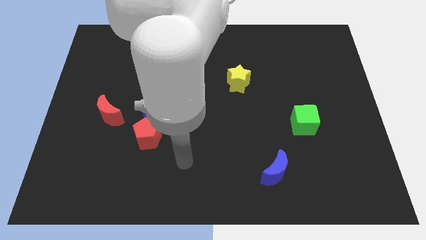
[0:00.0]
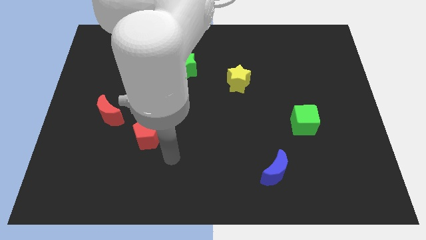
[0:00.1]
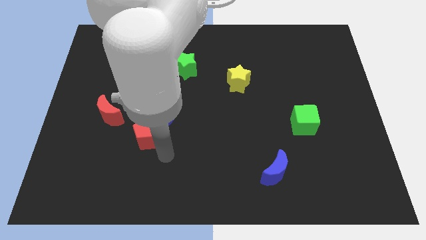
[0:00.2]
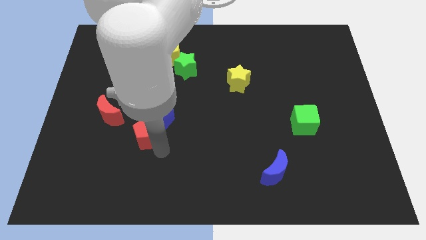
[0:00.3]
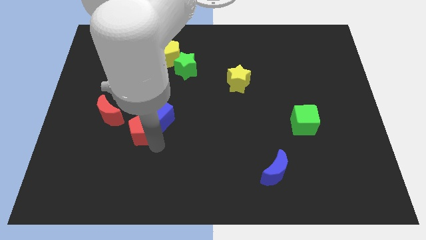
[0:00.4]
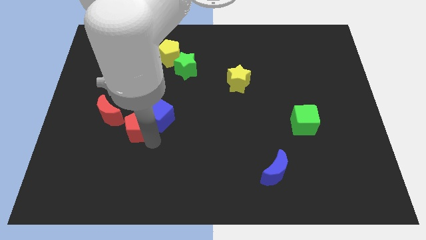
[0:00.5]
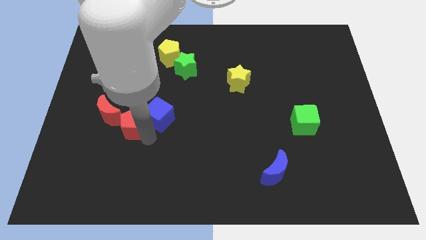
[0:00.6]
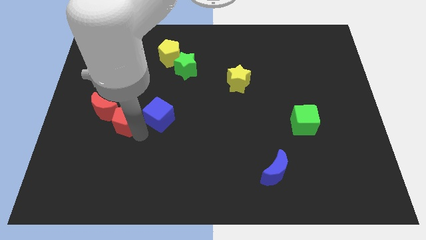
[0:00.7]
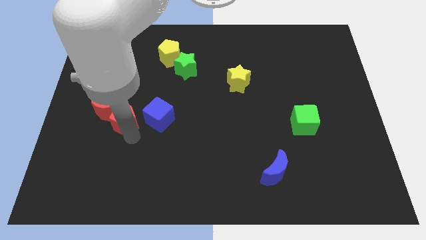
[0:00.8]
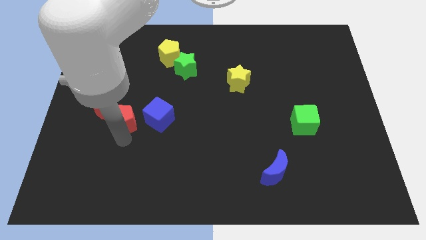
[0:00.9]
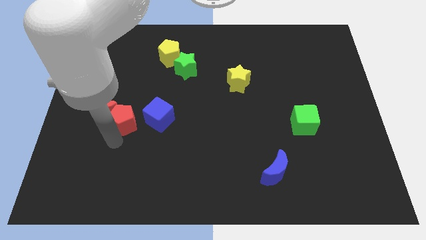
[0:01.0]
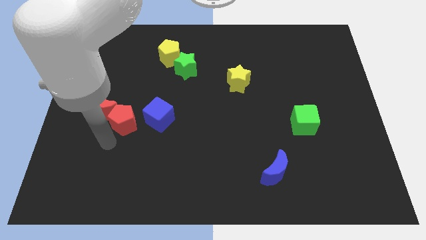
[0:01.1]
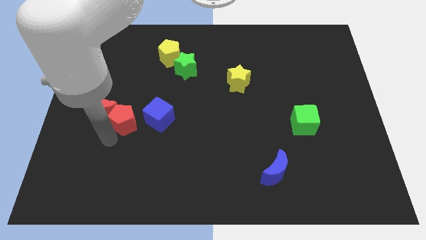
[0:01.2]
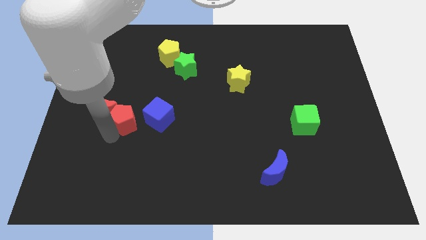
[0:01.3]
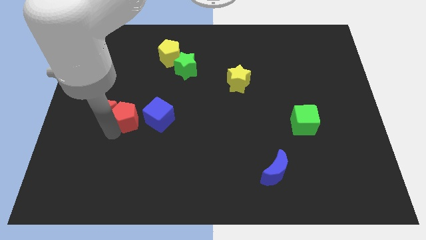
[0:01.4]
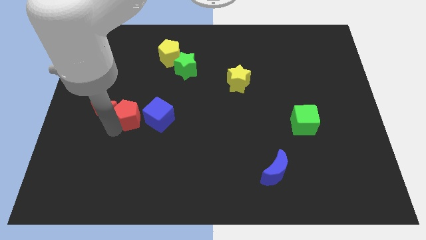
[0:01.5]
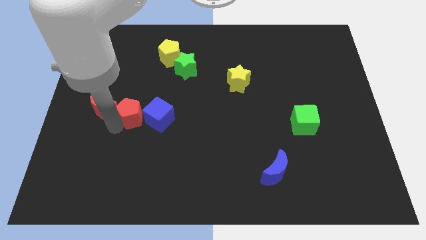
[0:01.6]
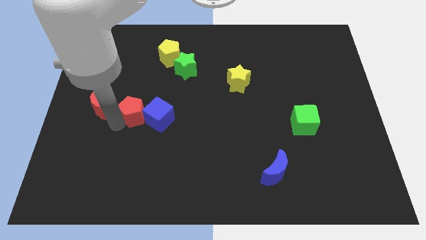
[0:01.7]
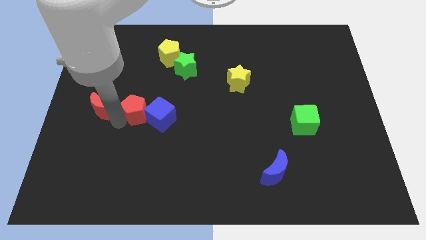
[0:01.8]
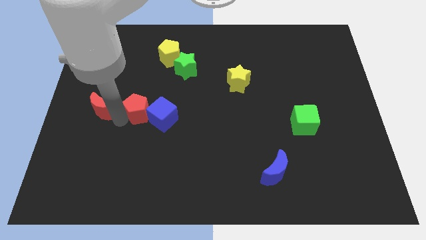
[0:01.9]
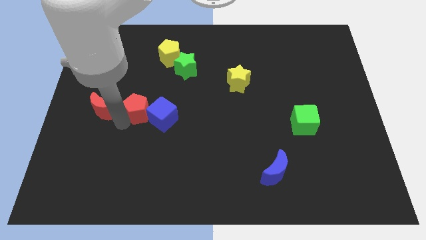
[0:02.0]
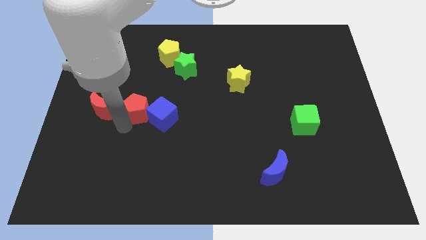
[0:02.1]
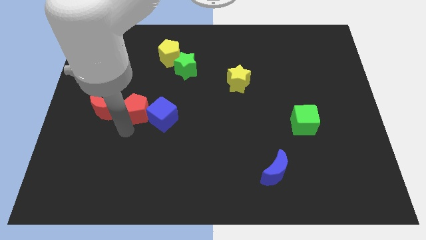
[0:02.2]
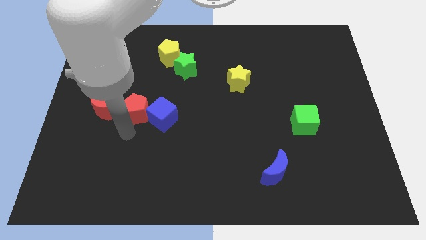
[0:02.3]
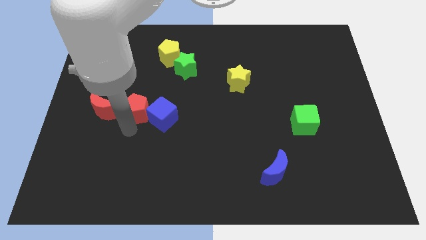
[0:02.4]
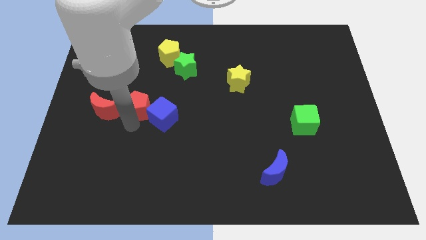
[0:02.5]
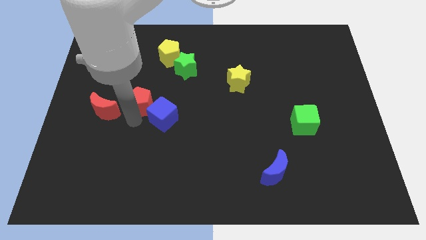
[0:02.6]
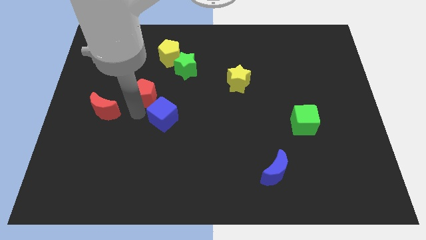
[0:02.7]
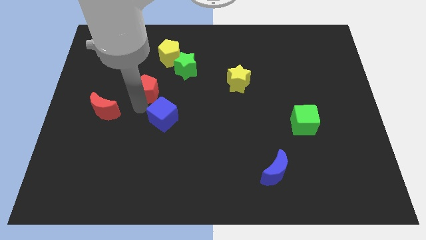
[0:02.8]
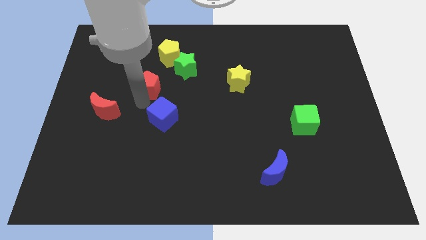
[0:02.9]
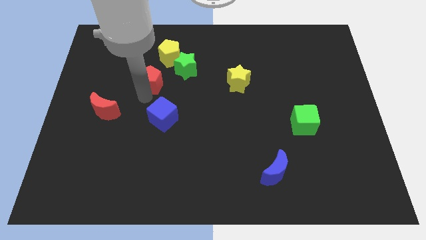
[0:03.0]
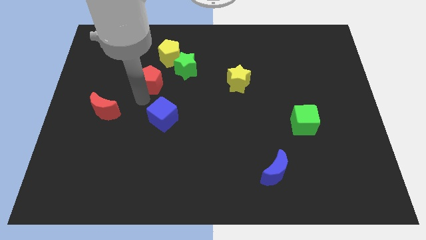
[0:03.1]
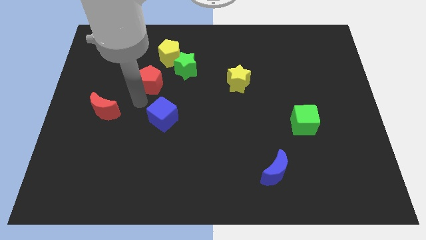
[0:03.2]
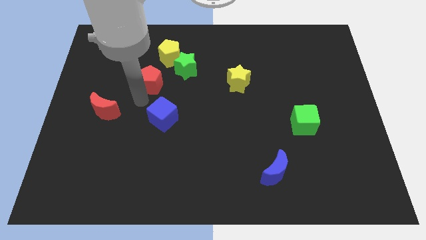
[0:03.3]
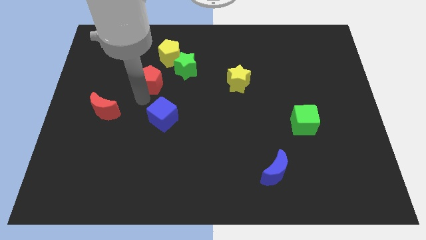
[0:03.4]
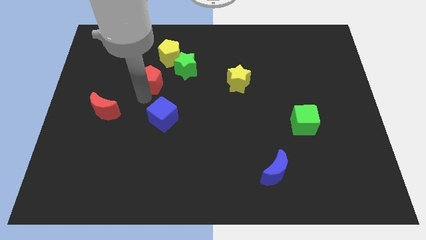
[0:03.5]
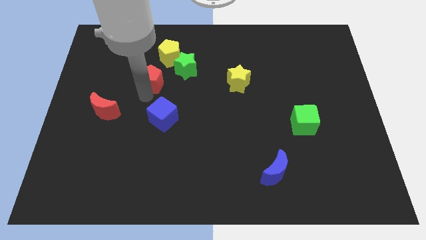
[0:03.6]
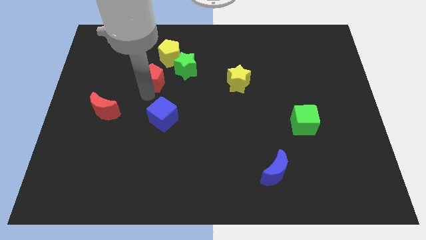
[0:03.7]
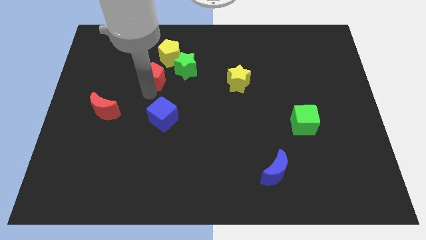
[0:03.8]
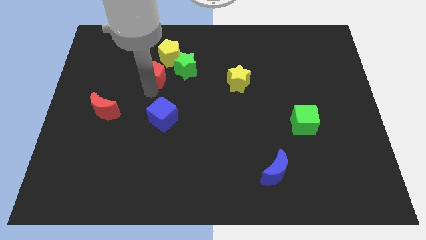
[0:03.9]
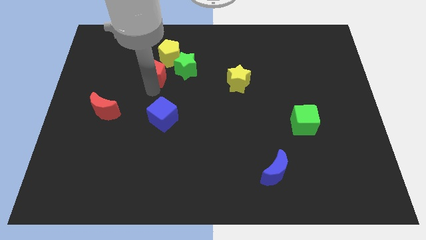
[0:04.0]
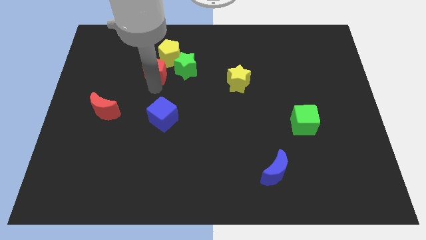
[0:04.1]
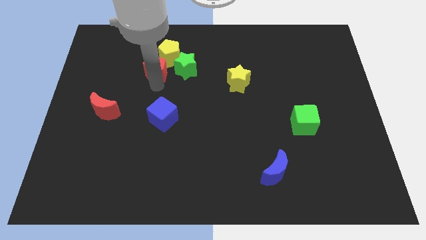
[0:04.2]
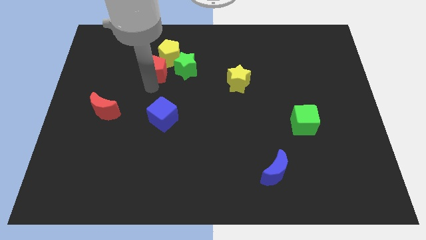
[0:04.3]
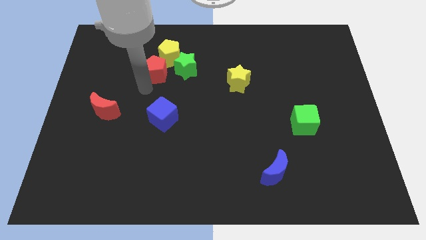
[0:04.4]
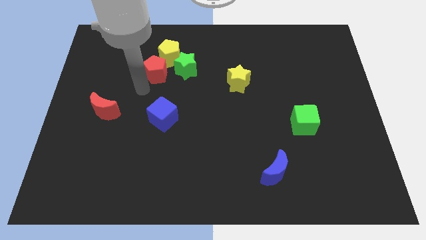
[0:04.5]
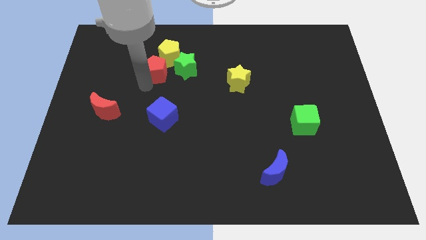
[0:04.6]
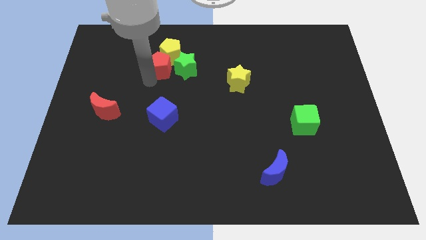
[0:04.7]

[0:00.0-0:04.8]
move the red pentagon next to the yellow pentagon

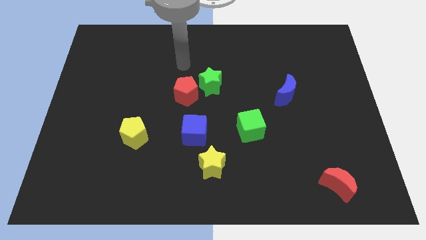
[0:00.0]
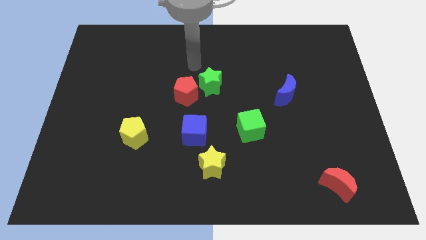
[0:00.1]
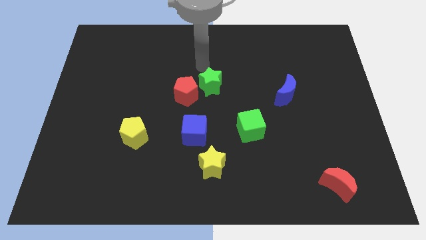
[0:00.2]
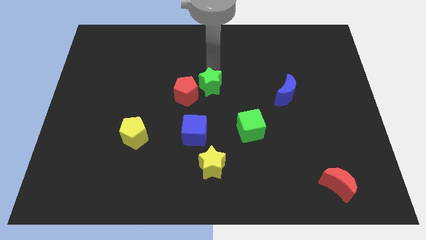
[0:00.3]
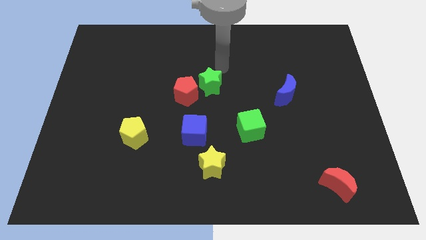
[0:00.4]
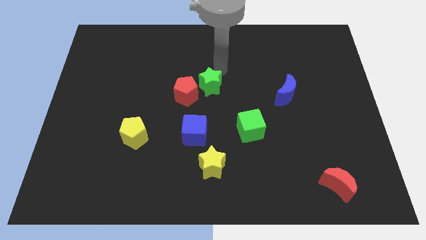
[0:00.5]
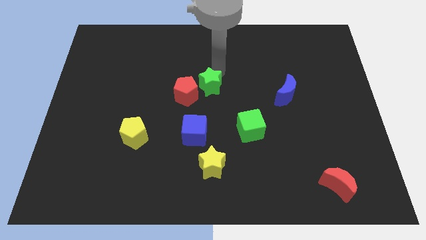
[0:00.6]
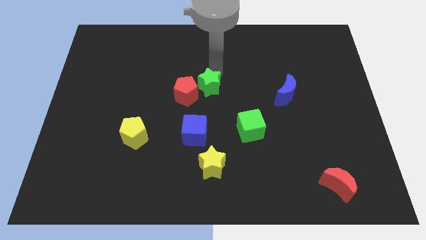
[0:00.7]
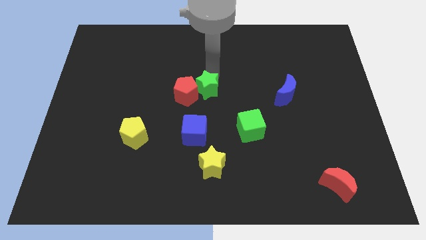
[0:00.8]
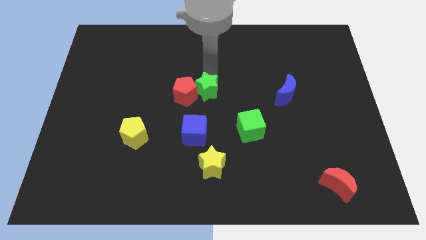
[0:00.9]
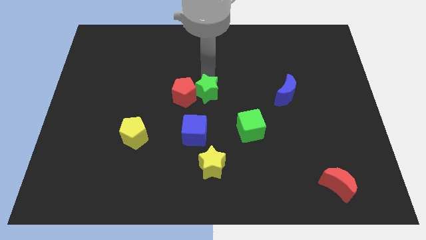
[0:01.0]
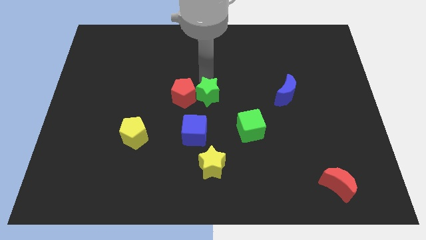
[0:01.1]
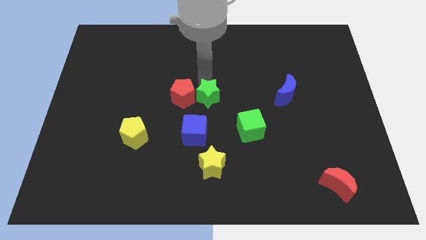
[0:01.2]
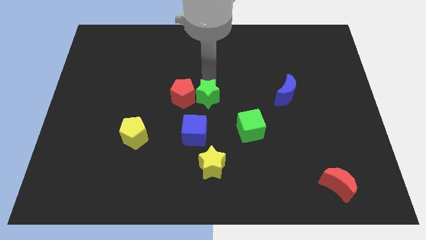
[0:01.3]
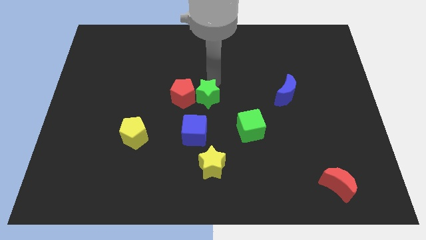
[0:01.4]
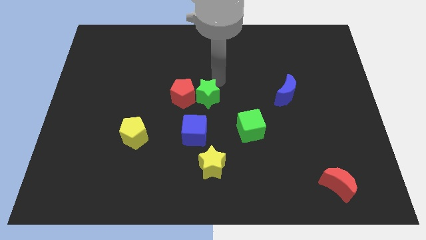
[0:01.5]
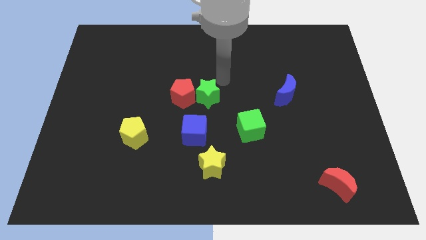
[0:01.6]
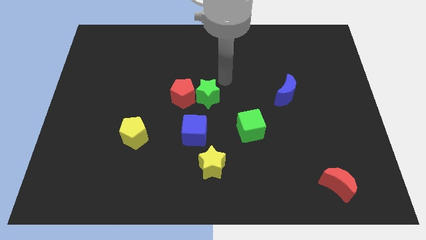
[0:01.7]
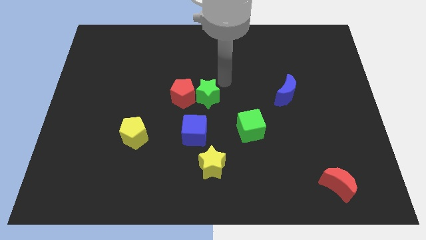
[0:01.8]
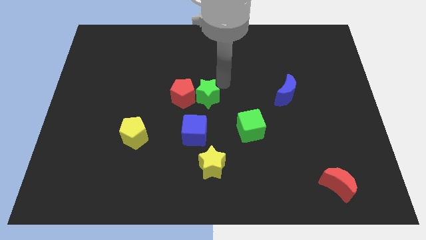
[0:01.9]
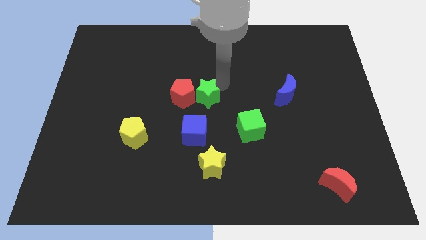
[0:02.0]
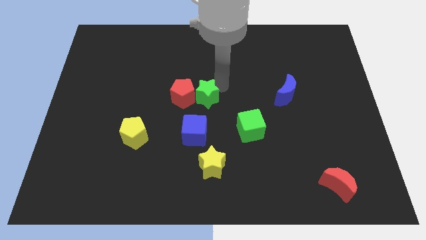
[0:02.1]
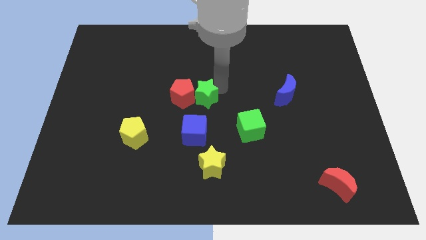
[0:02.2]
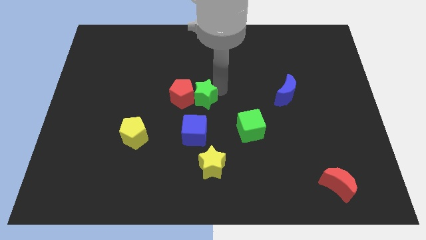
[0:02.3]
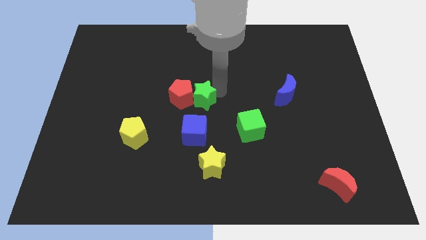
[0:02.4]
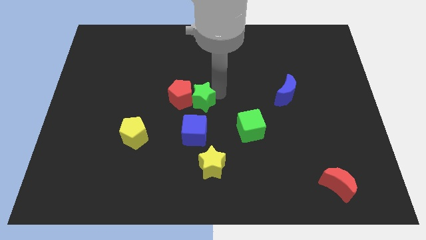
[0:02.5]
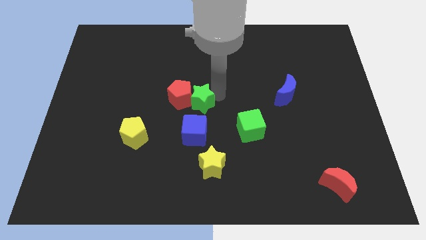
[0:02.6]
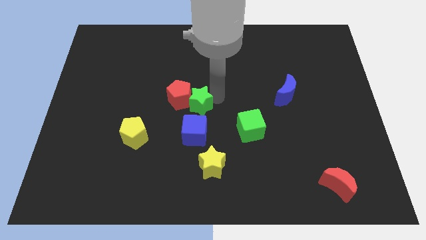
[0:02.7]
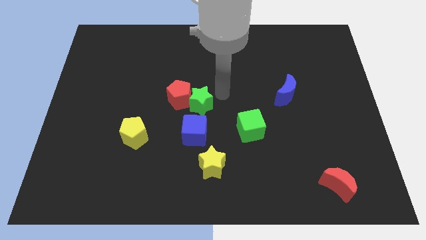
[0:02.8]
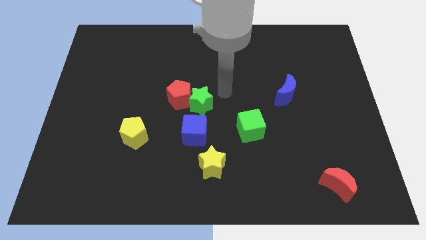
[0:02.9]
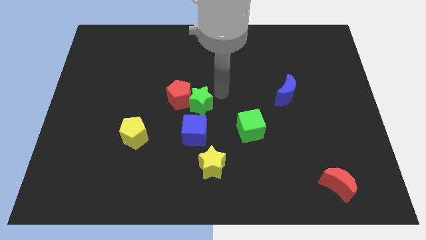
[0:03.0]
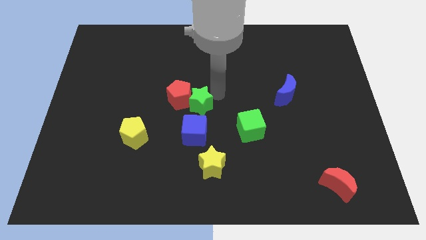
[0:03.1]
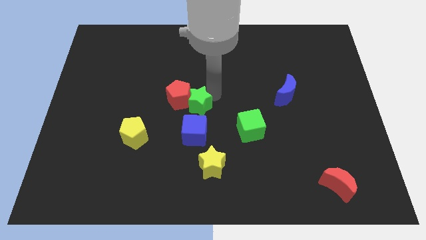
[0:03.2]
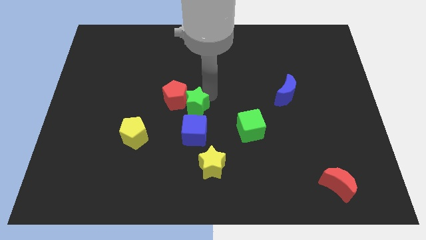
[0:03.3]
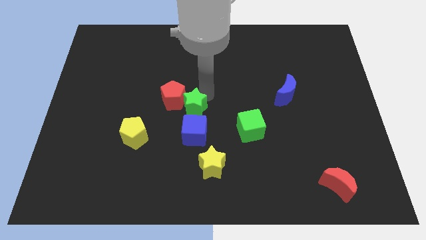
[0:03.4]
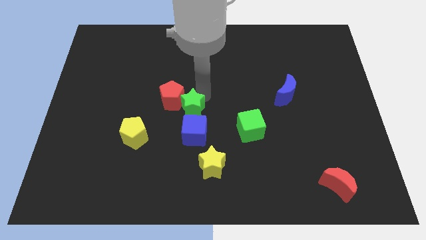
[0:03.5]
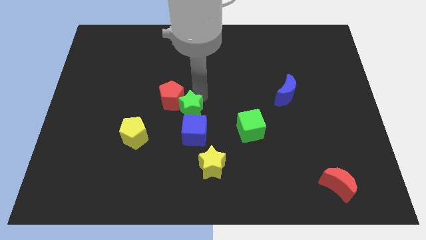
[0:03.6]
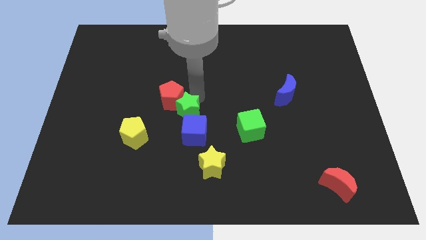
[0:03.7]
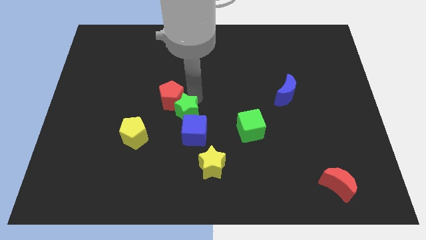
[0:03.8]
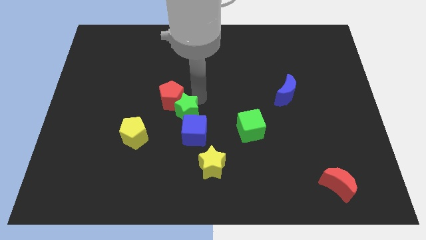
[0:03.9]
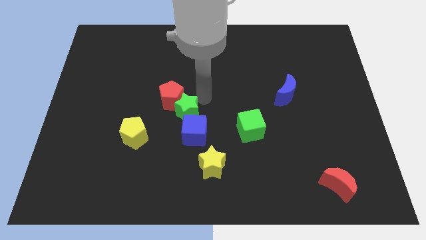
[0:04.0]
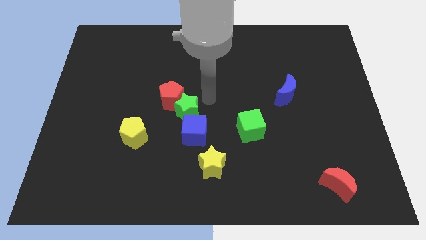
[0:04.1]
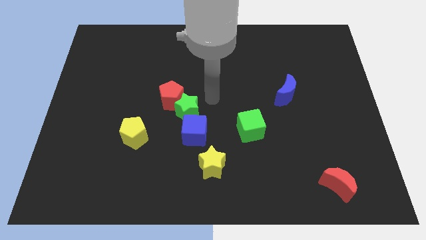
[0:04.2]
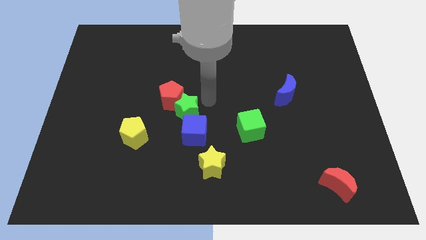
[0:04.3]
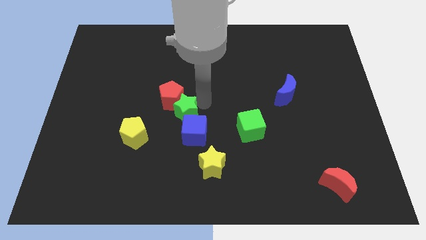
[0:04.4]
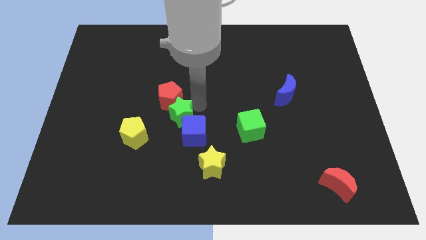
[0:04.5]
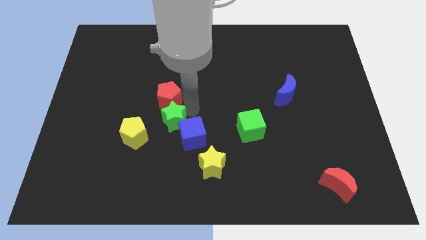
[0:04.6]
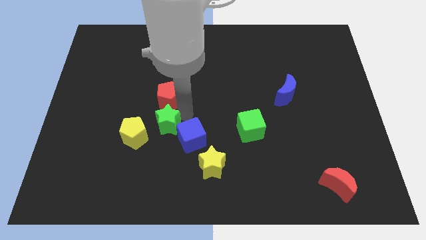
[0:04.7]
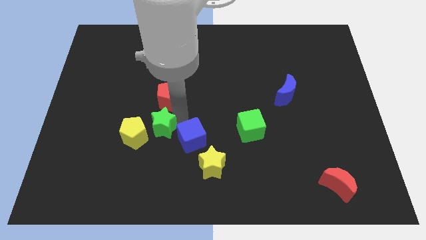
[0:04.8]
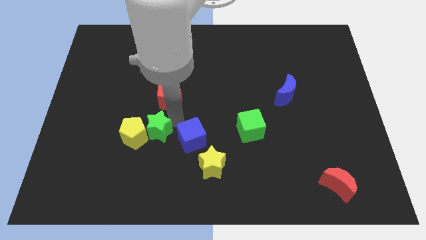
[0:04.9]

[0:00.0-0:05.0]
move the green star to the yellow pentagon
